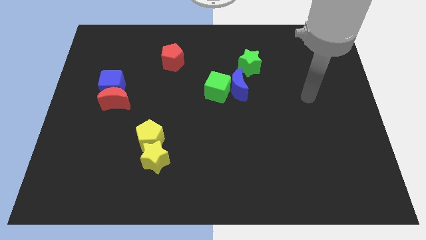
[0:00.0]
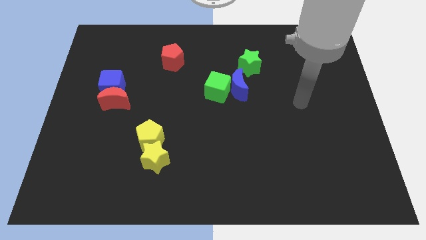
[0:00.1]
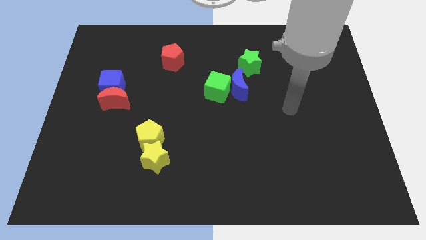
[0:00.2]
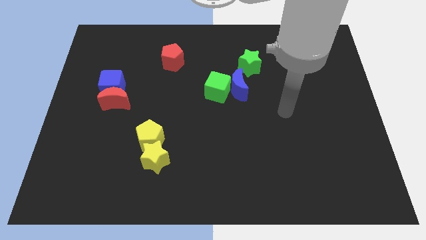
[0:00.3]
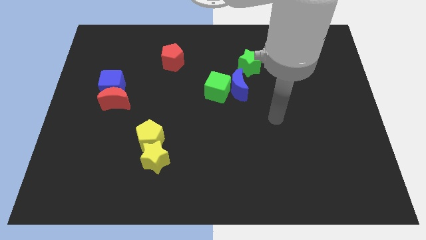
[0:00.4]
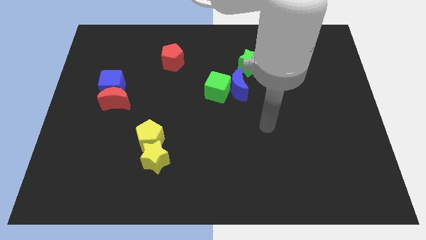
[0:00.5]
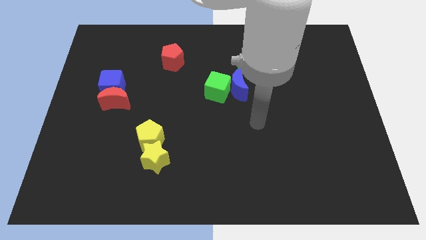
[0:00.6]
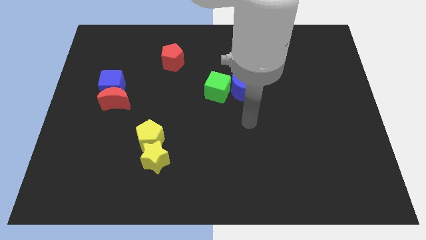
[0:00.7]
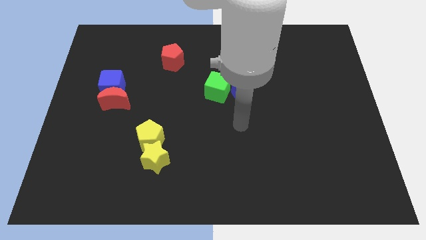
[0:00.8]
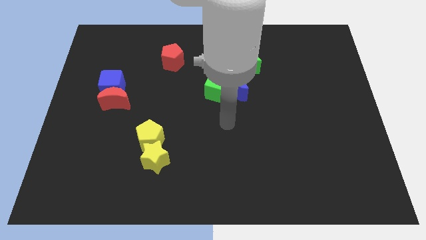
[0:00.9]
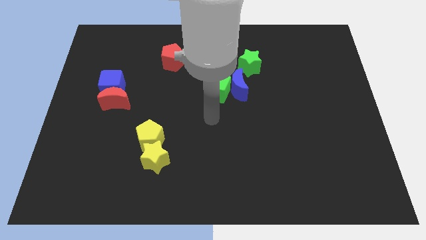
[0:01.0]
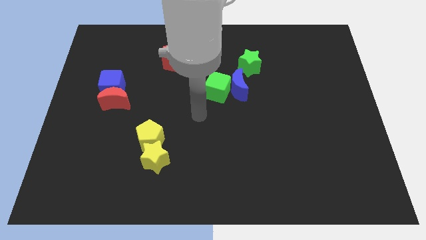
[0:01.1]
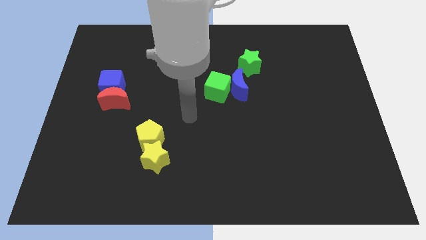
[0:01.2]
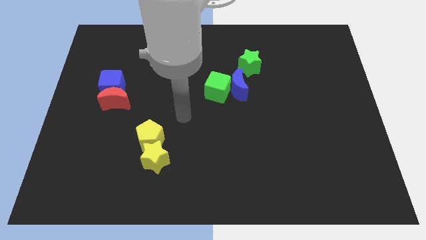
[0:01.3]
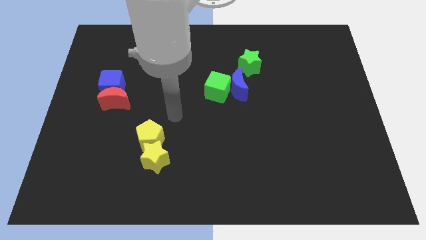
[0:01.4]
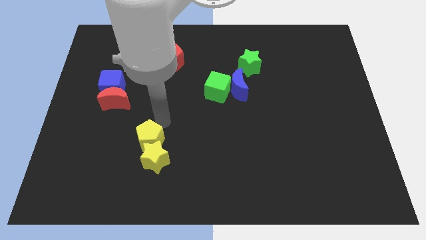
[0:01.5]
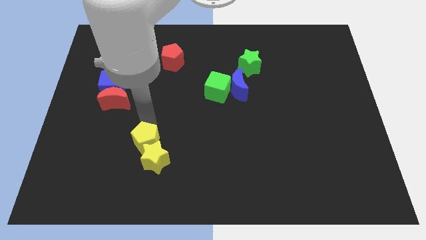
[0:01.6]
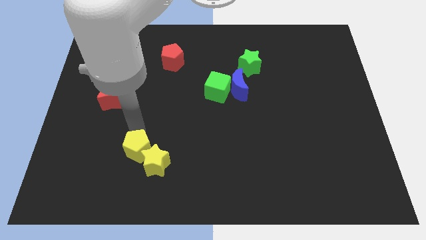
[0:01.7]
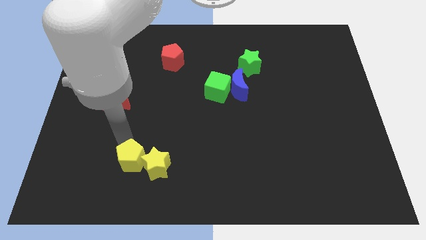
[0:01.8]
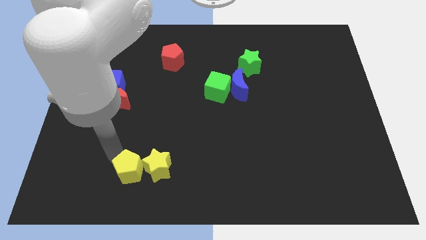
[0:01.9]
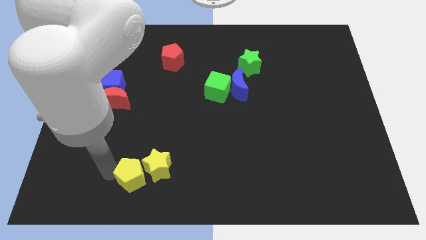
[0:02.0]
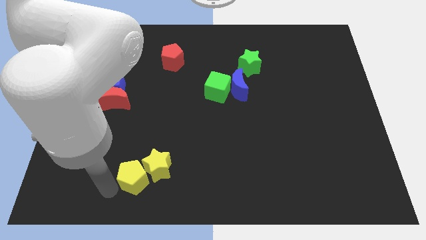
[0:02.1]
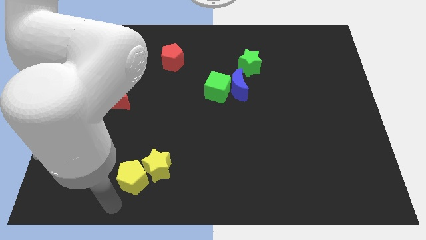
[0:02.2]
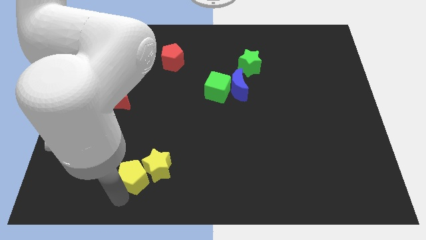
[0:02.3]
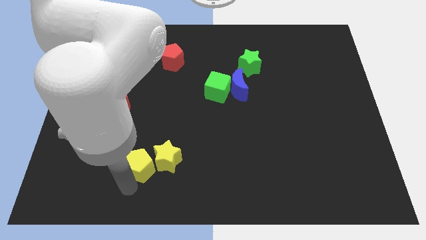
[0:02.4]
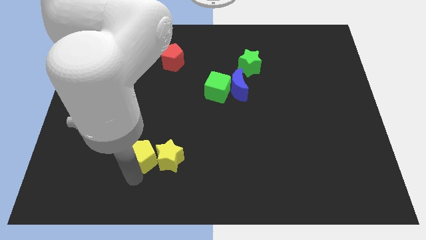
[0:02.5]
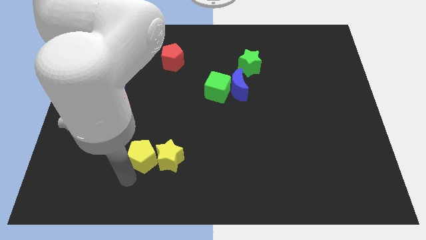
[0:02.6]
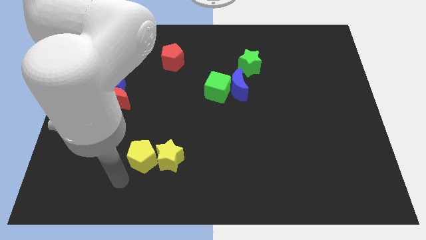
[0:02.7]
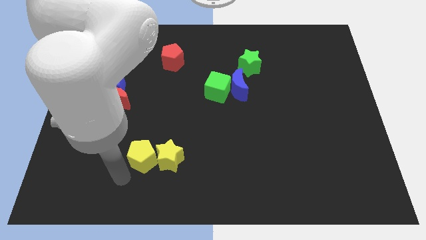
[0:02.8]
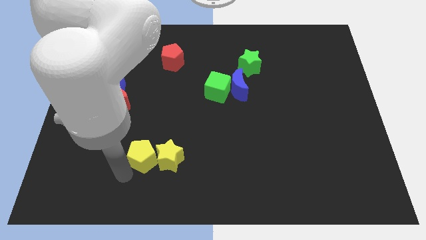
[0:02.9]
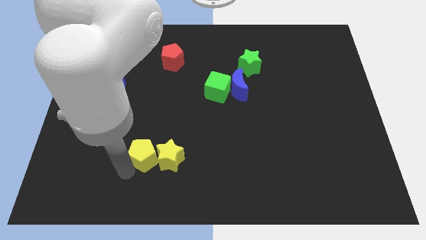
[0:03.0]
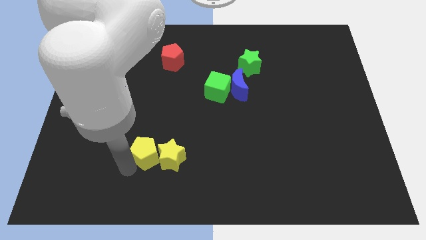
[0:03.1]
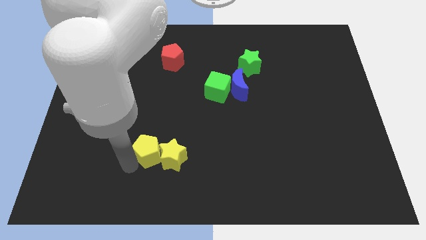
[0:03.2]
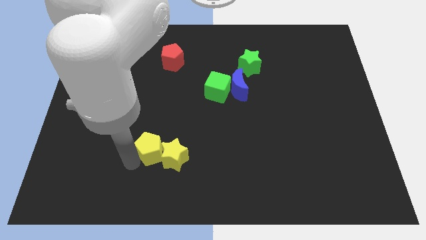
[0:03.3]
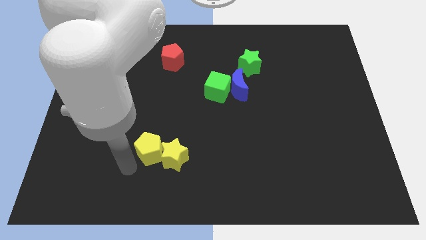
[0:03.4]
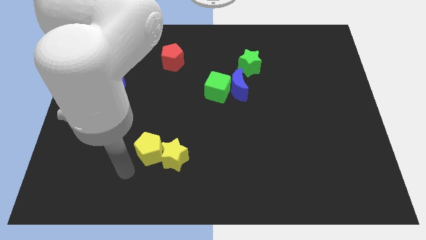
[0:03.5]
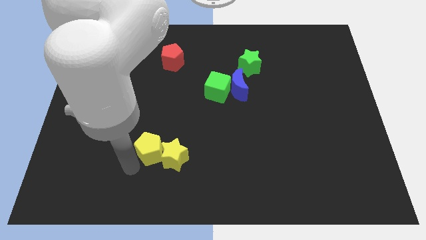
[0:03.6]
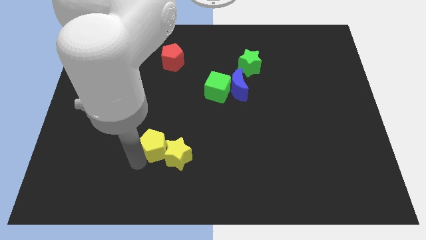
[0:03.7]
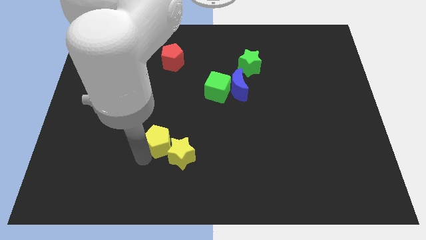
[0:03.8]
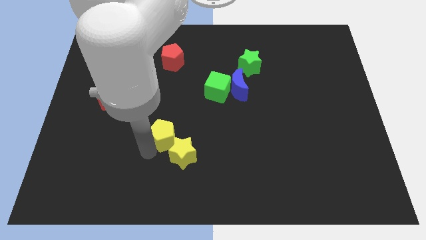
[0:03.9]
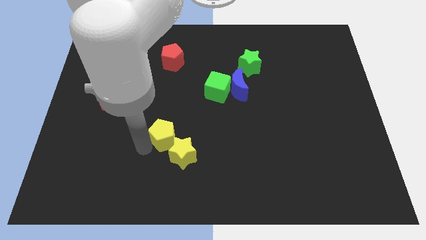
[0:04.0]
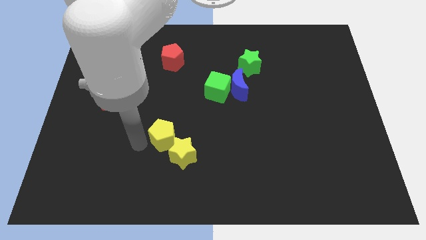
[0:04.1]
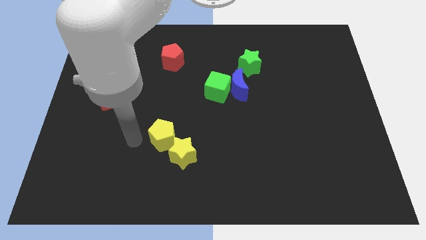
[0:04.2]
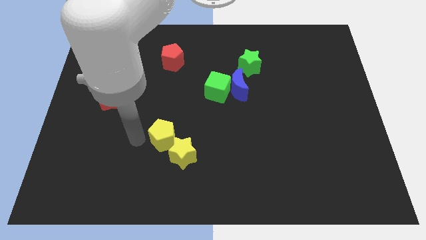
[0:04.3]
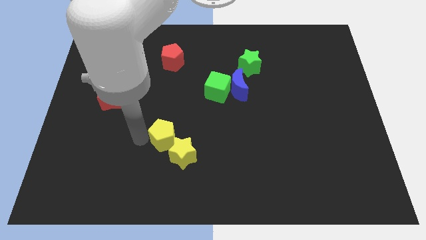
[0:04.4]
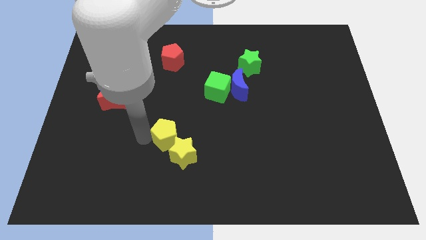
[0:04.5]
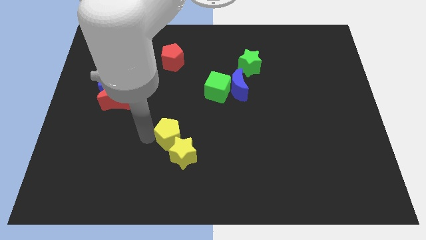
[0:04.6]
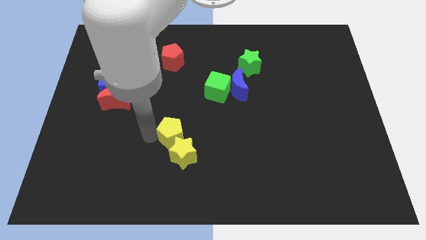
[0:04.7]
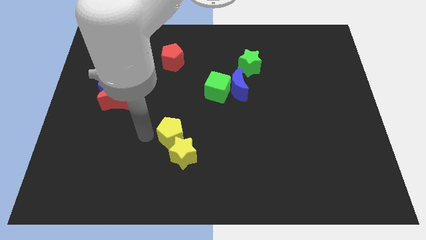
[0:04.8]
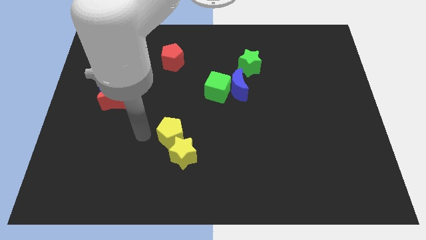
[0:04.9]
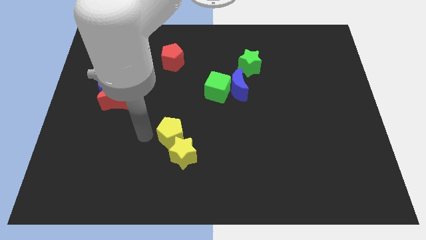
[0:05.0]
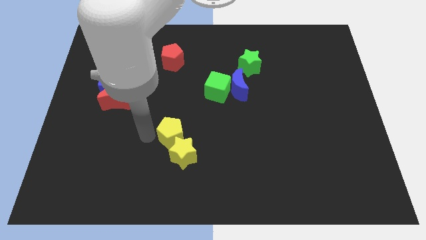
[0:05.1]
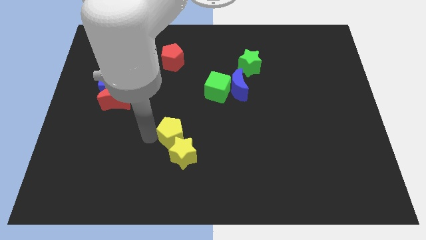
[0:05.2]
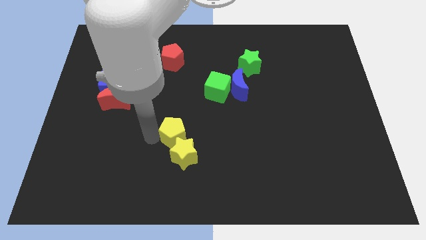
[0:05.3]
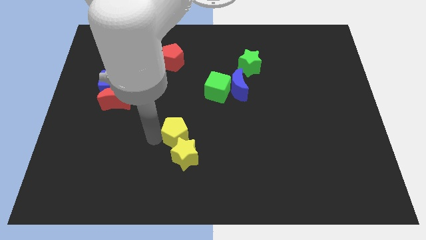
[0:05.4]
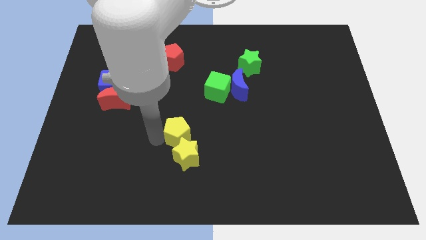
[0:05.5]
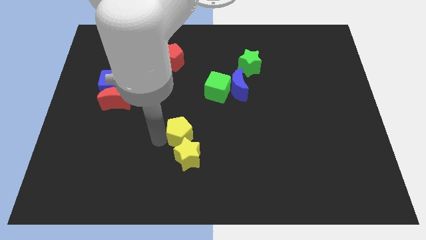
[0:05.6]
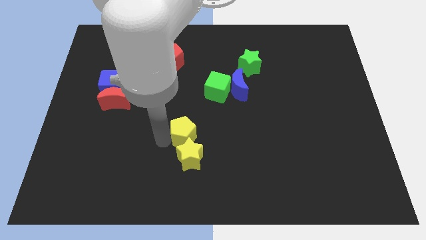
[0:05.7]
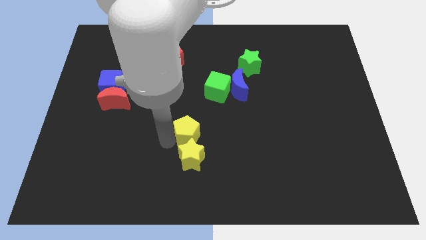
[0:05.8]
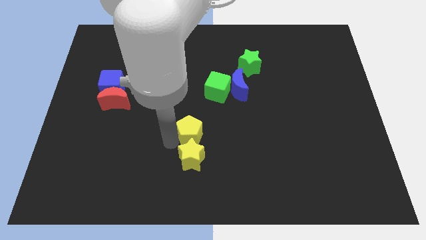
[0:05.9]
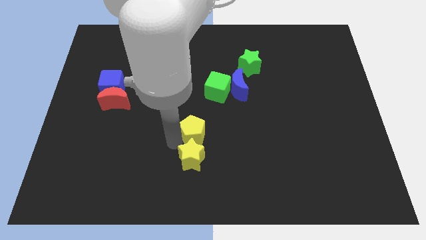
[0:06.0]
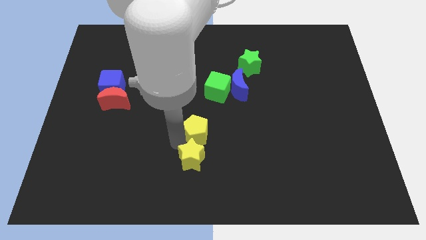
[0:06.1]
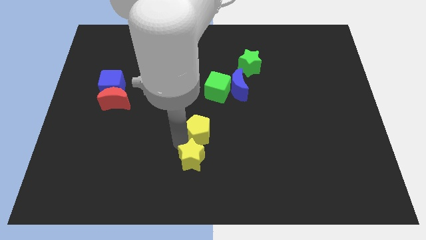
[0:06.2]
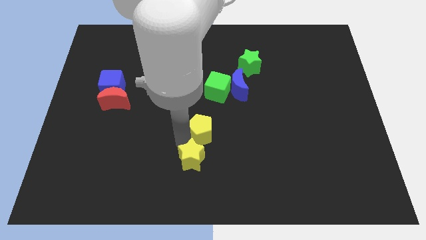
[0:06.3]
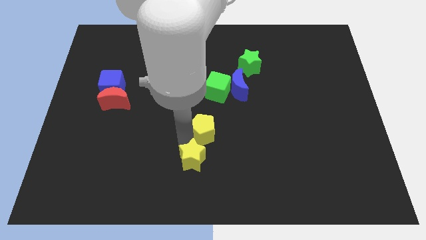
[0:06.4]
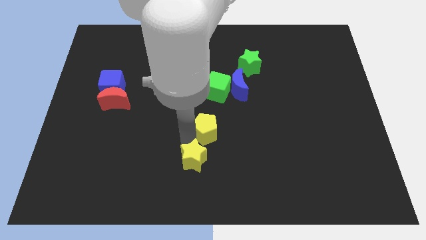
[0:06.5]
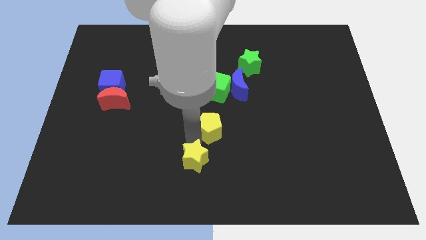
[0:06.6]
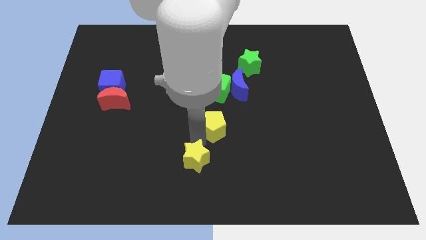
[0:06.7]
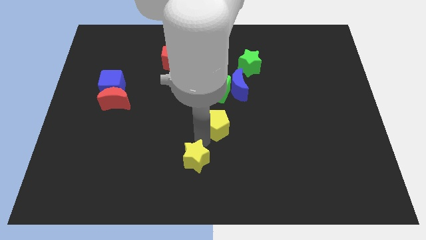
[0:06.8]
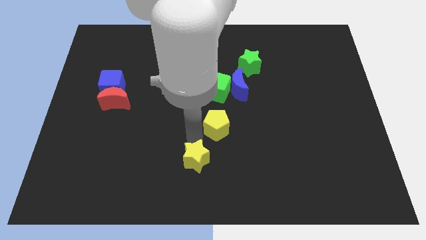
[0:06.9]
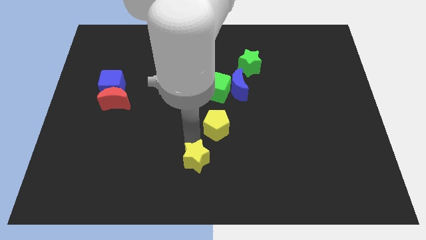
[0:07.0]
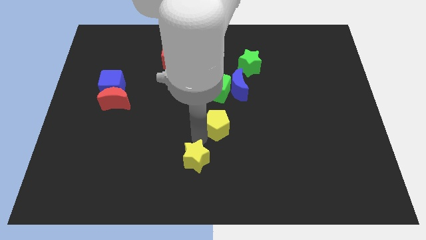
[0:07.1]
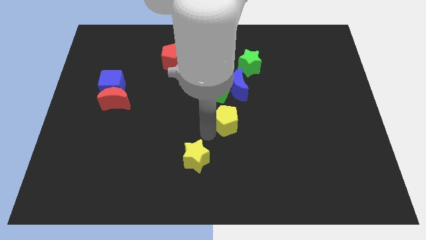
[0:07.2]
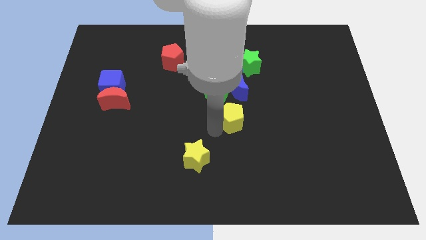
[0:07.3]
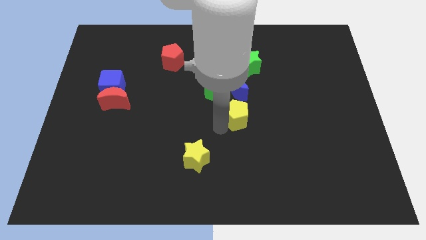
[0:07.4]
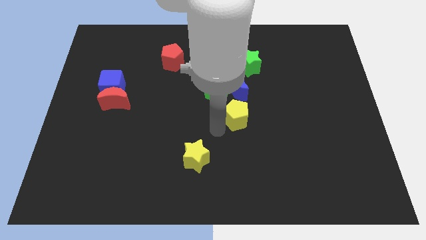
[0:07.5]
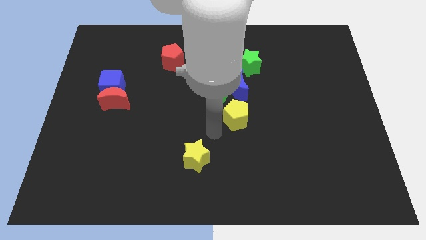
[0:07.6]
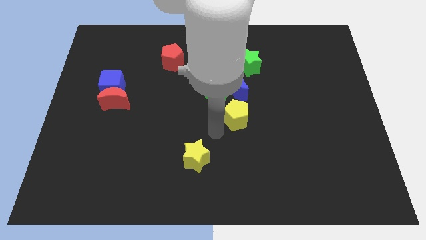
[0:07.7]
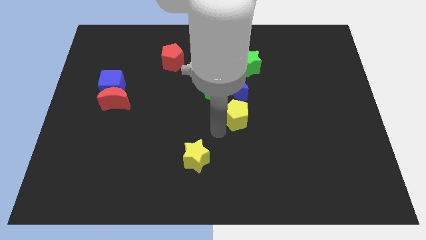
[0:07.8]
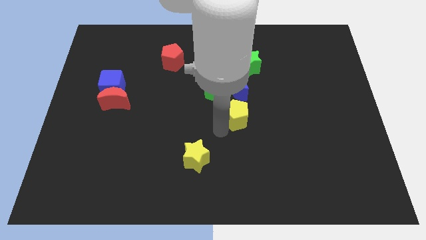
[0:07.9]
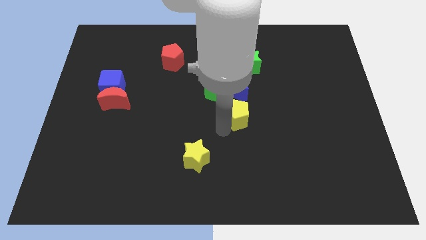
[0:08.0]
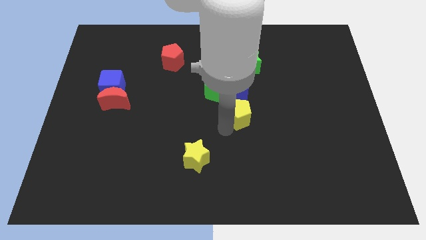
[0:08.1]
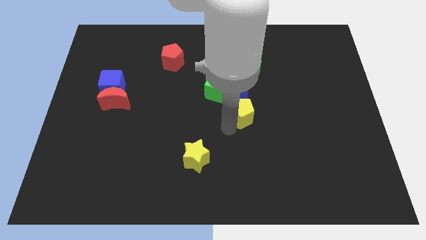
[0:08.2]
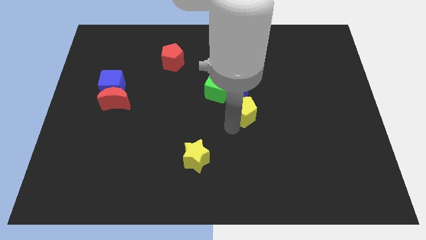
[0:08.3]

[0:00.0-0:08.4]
slide the yellow pentagon to the bottom right side of the blue moon
